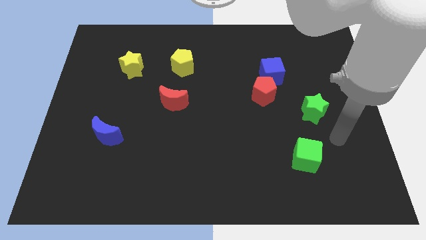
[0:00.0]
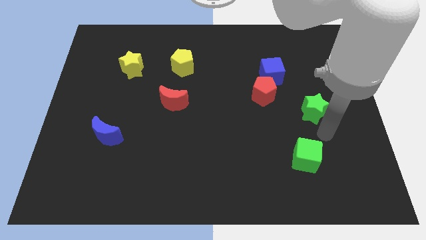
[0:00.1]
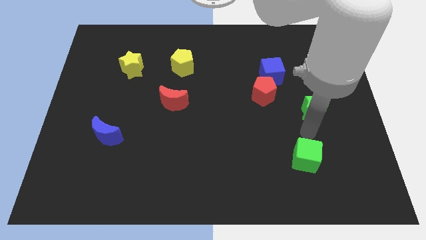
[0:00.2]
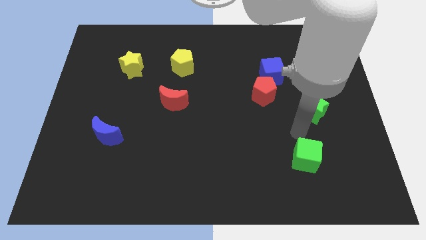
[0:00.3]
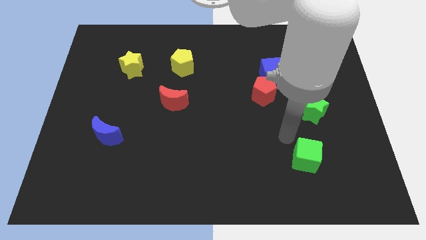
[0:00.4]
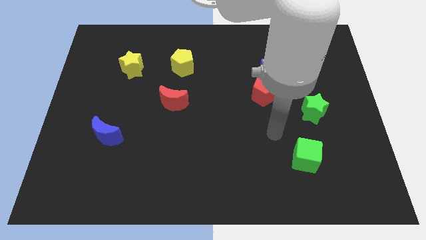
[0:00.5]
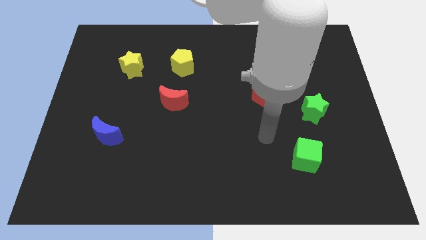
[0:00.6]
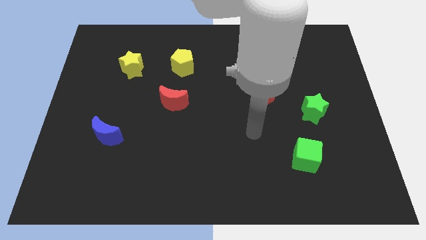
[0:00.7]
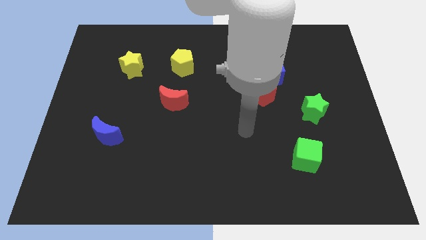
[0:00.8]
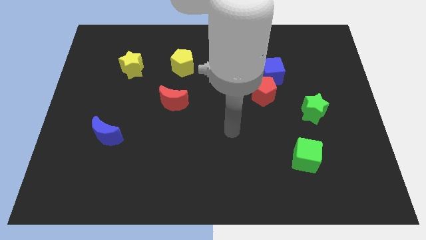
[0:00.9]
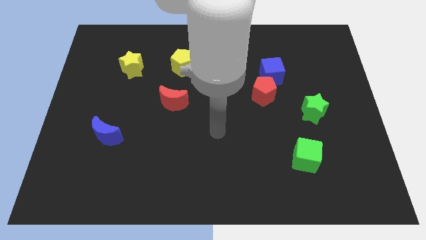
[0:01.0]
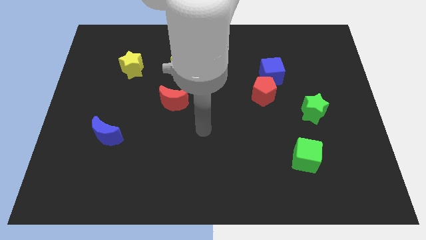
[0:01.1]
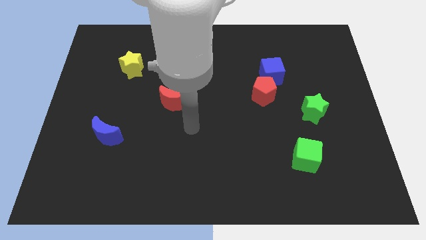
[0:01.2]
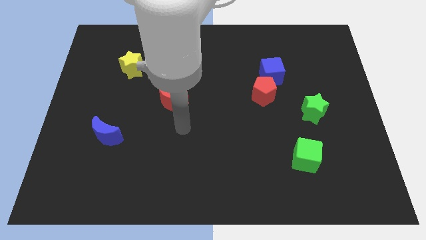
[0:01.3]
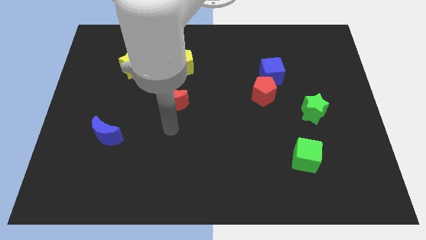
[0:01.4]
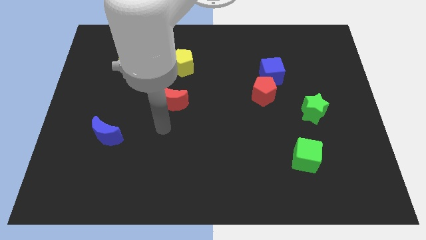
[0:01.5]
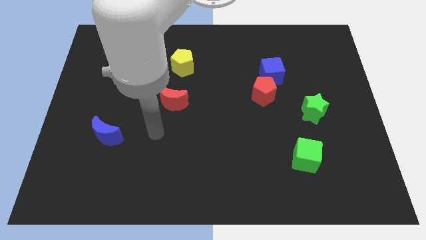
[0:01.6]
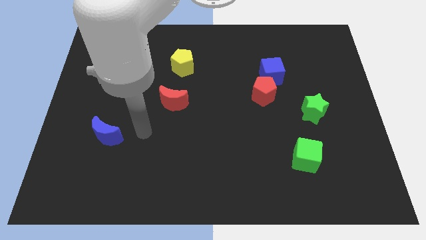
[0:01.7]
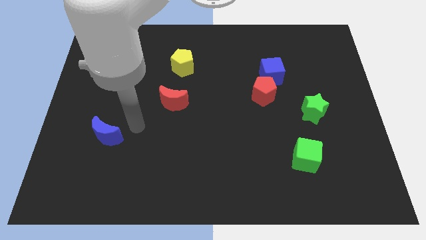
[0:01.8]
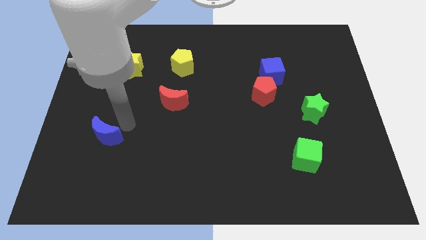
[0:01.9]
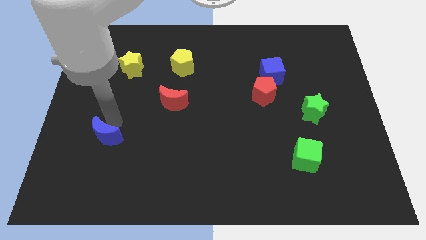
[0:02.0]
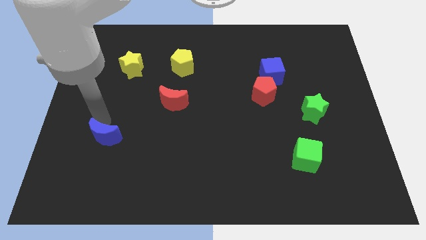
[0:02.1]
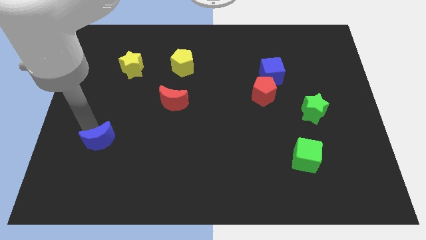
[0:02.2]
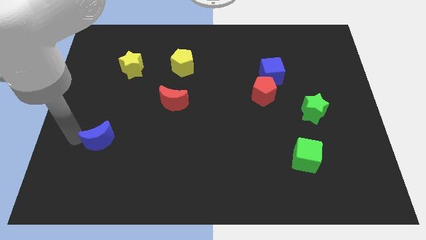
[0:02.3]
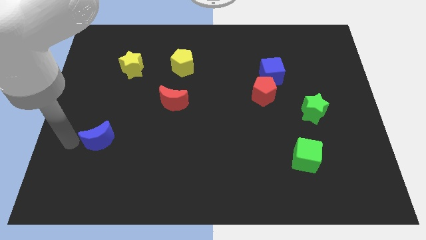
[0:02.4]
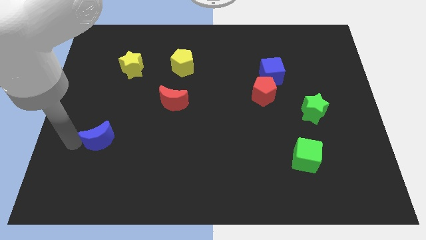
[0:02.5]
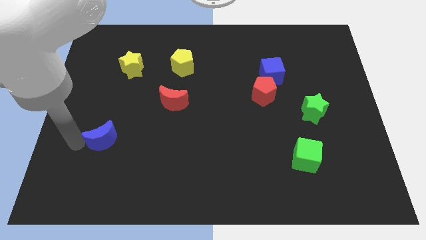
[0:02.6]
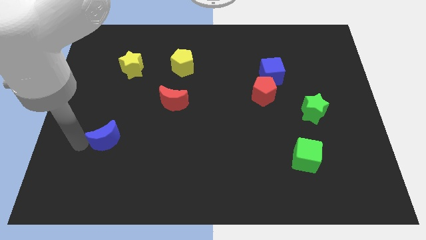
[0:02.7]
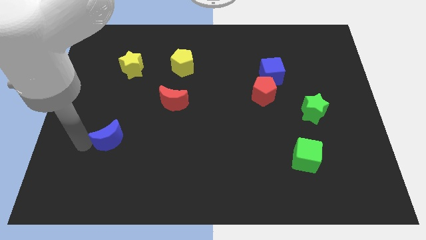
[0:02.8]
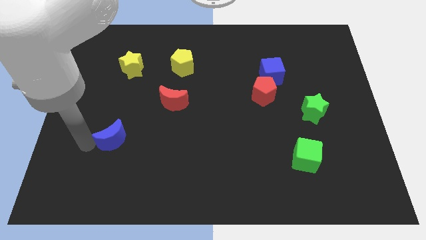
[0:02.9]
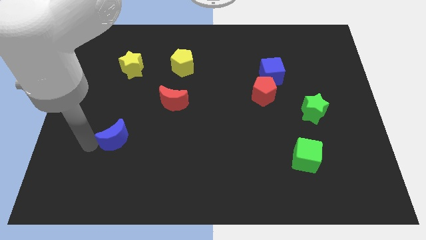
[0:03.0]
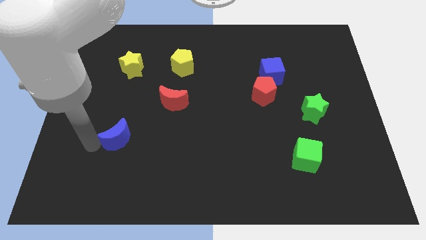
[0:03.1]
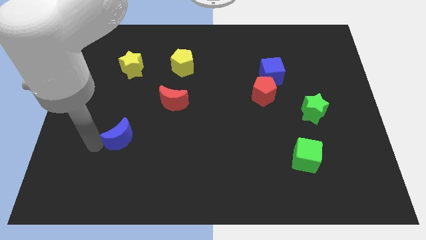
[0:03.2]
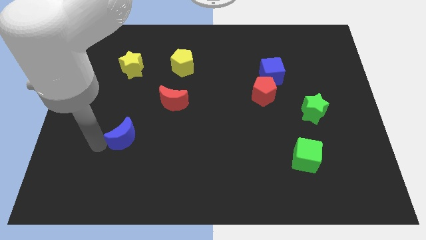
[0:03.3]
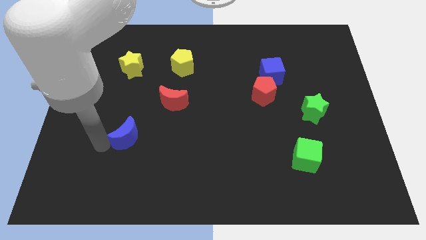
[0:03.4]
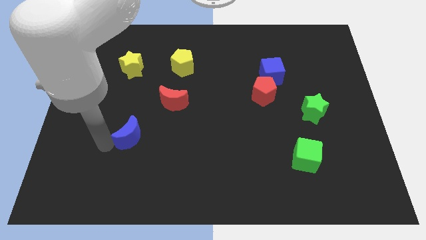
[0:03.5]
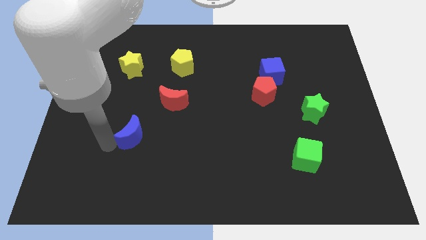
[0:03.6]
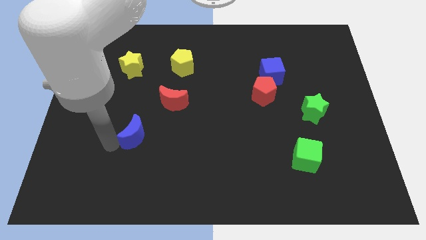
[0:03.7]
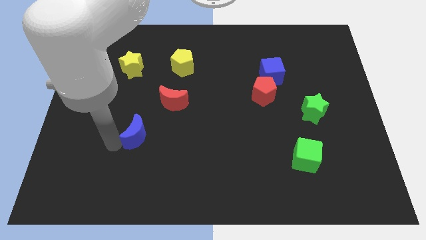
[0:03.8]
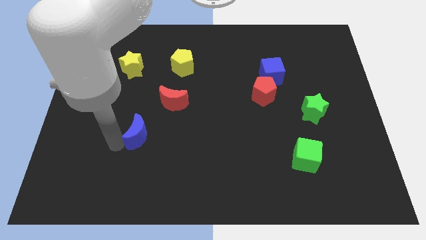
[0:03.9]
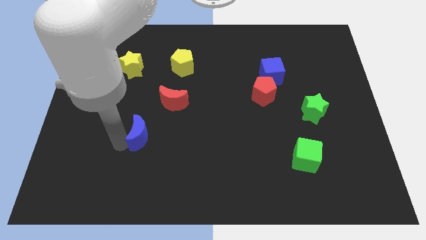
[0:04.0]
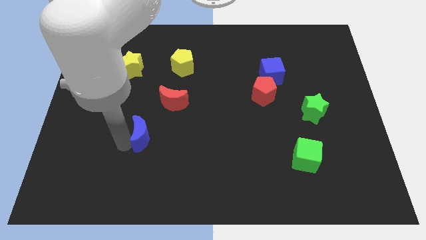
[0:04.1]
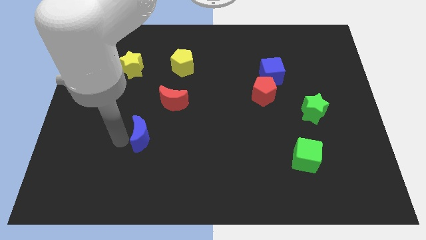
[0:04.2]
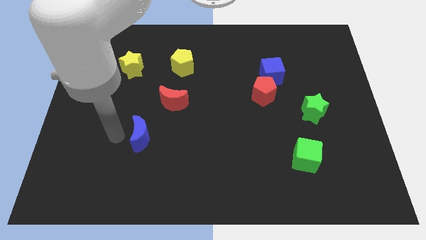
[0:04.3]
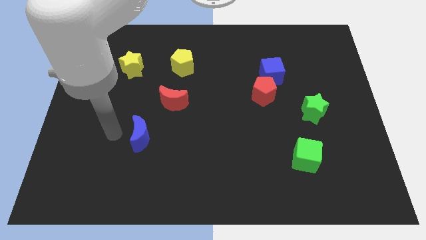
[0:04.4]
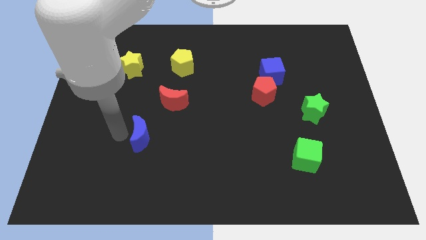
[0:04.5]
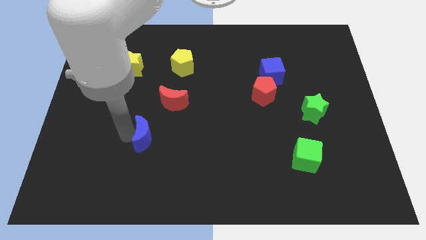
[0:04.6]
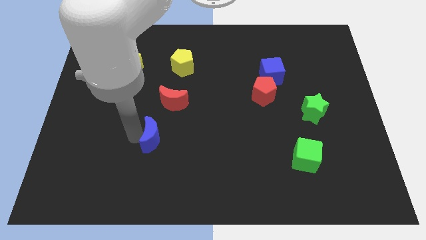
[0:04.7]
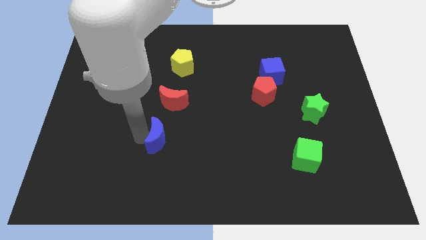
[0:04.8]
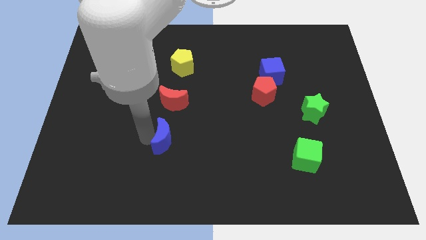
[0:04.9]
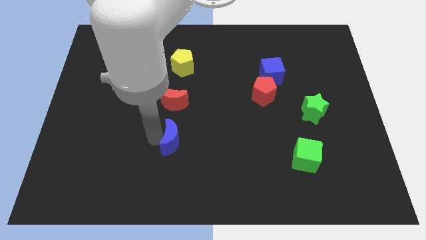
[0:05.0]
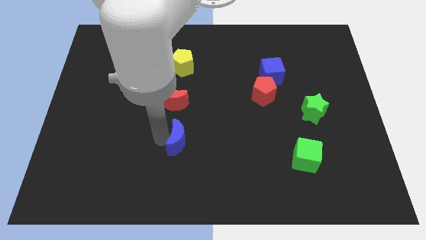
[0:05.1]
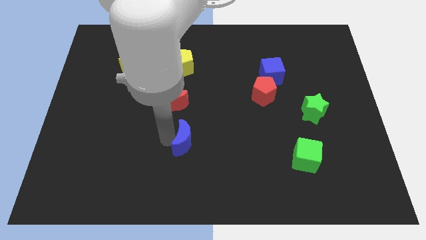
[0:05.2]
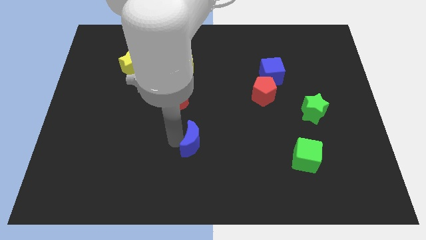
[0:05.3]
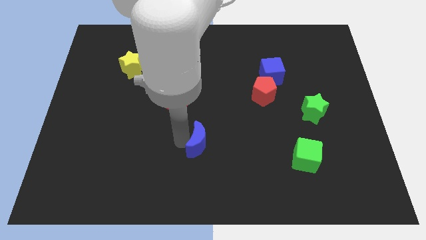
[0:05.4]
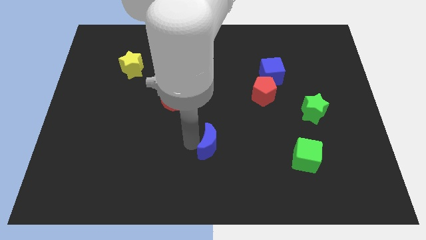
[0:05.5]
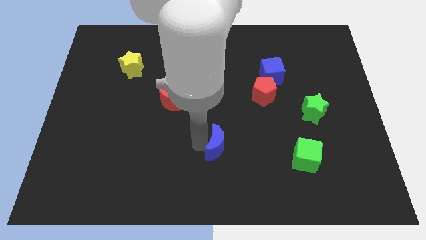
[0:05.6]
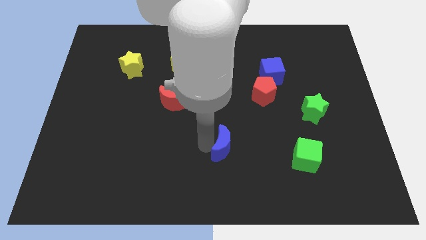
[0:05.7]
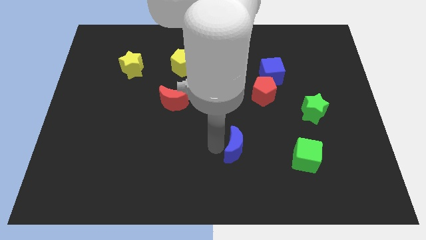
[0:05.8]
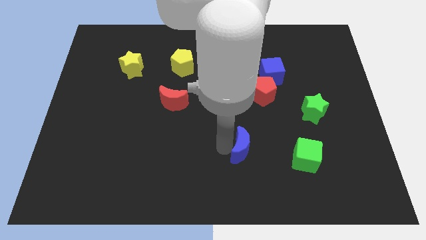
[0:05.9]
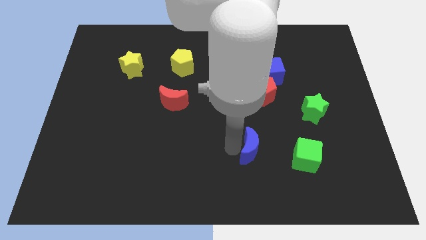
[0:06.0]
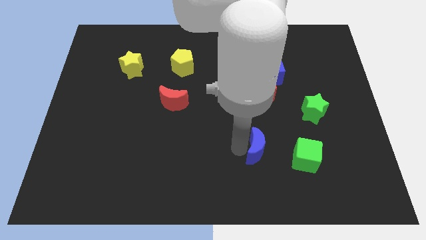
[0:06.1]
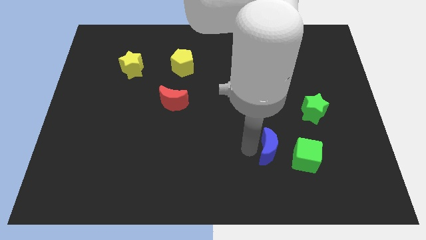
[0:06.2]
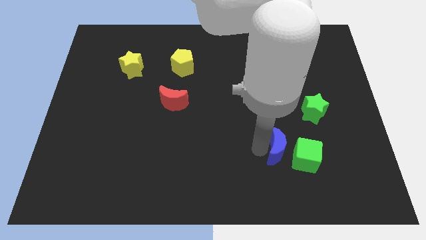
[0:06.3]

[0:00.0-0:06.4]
put the blue moon next to the green cube

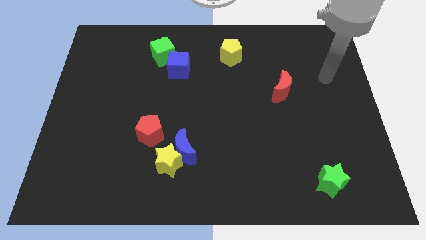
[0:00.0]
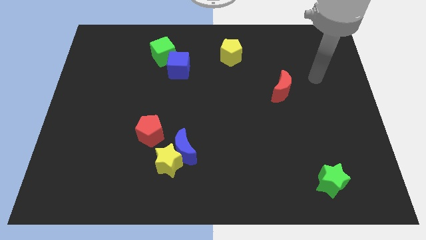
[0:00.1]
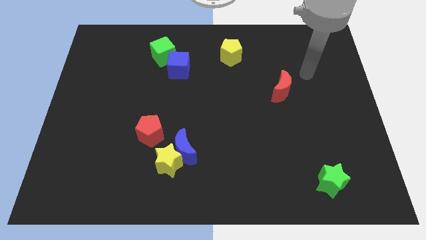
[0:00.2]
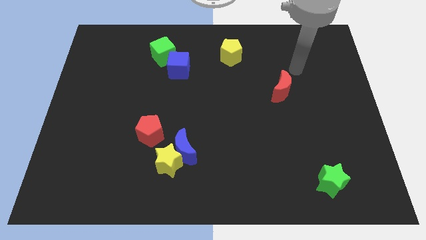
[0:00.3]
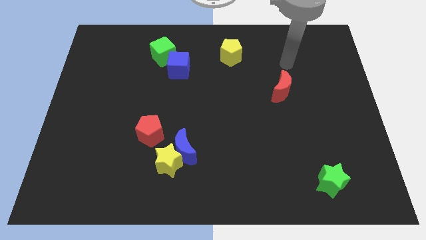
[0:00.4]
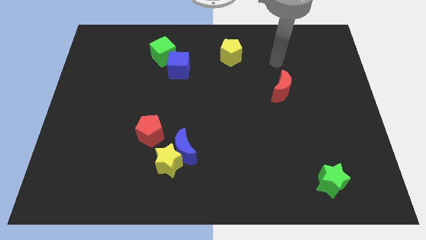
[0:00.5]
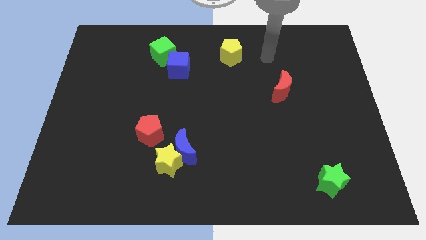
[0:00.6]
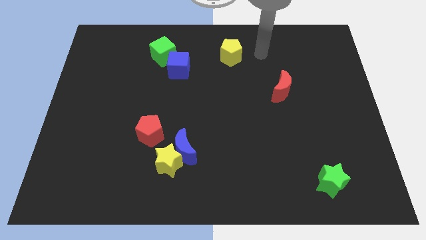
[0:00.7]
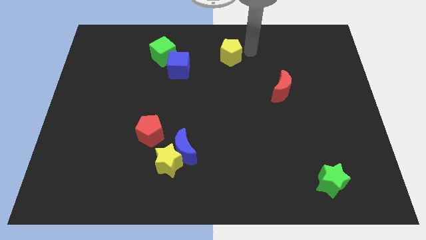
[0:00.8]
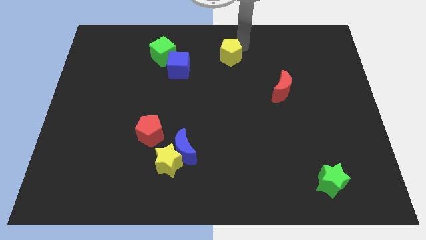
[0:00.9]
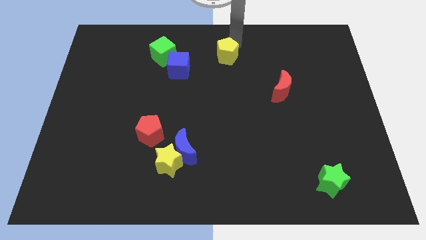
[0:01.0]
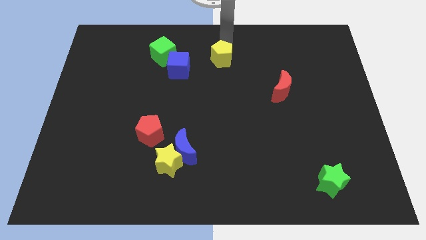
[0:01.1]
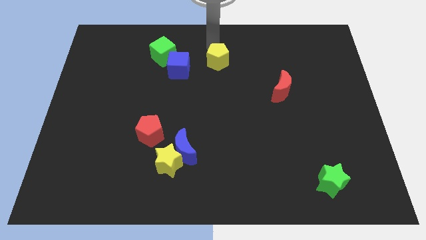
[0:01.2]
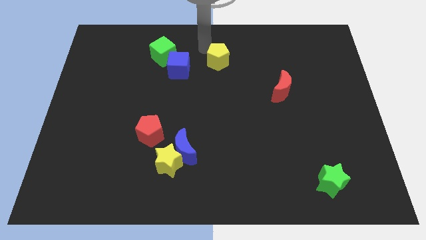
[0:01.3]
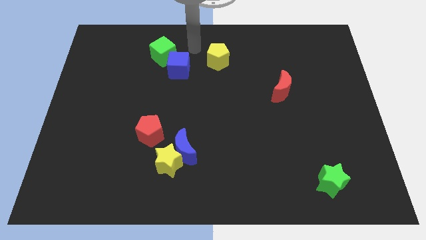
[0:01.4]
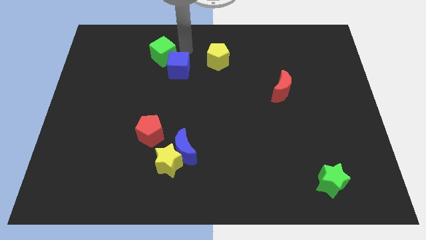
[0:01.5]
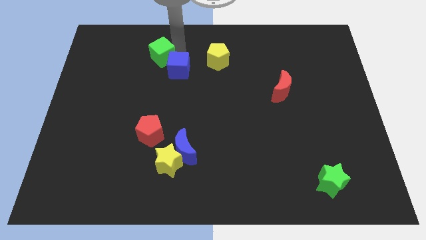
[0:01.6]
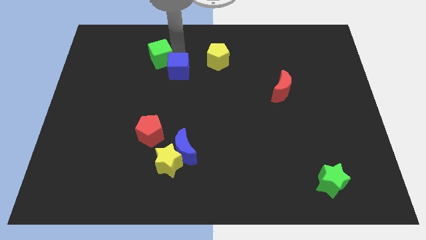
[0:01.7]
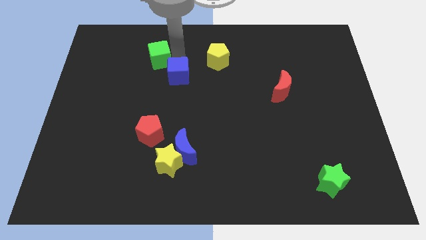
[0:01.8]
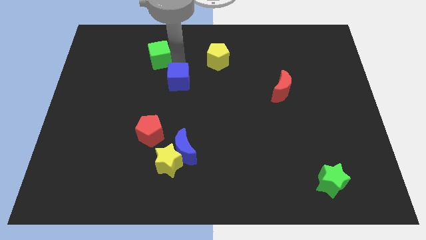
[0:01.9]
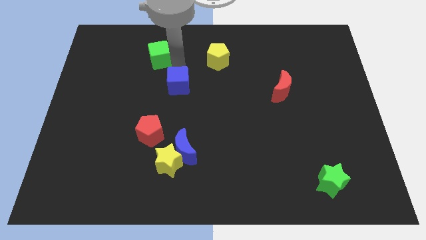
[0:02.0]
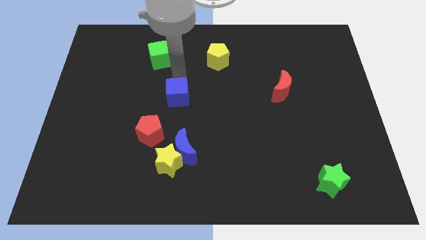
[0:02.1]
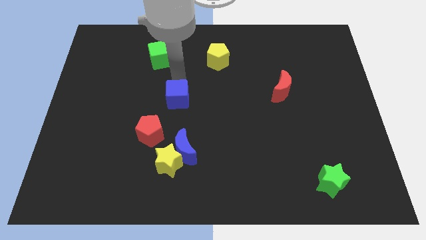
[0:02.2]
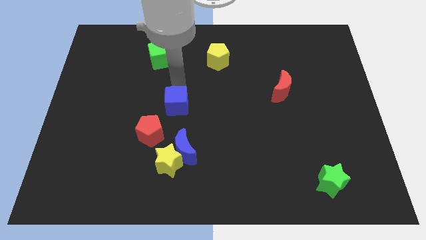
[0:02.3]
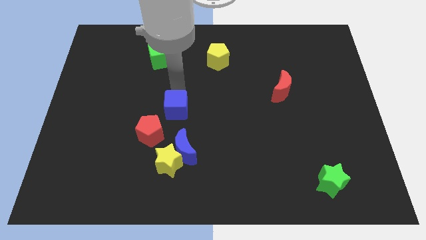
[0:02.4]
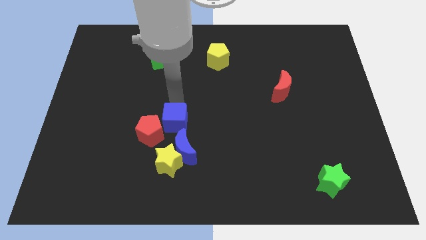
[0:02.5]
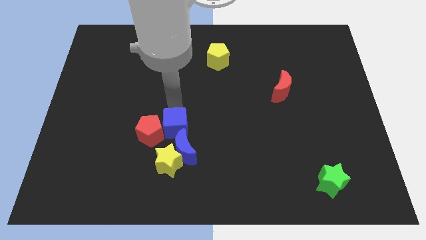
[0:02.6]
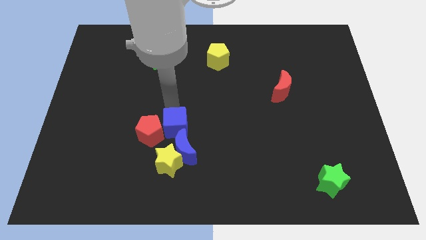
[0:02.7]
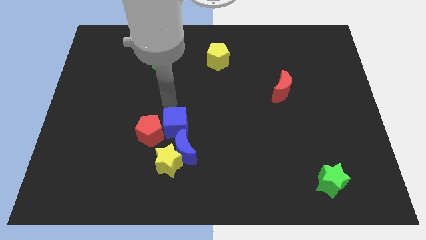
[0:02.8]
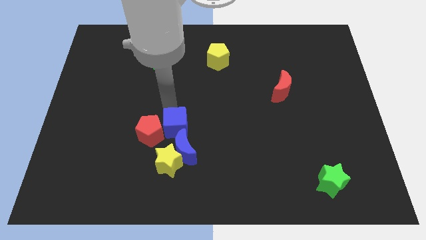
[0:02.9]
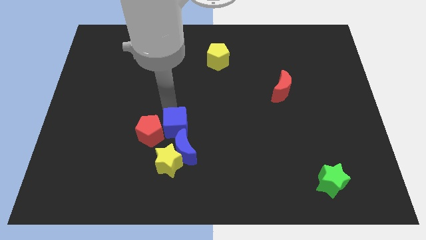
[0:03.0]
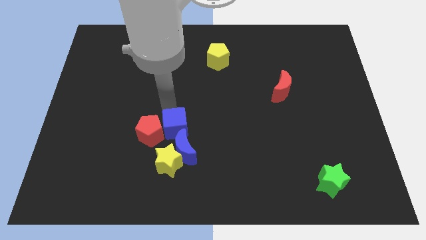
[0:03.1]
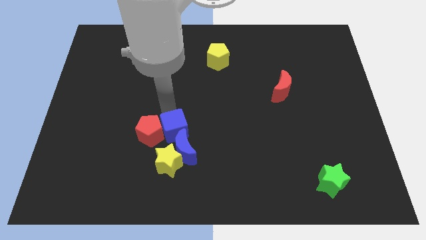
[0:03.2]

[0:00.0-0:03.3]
push the blue cube to the blue moon
